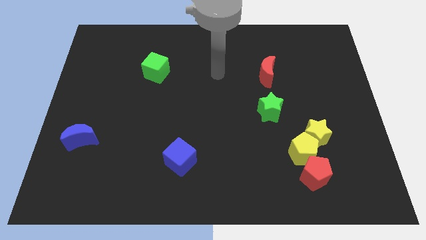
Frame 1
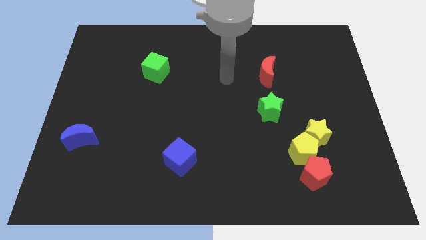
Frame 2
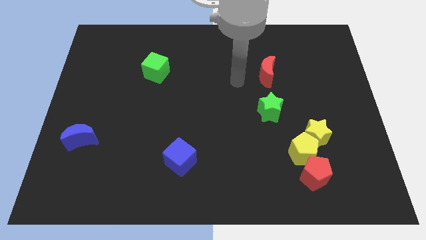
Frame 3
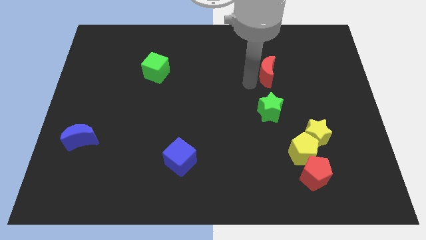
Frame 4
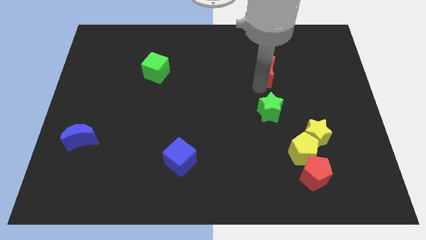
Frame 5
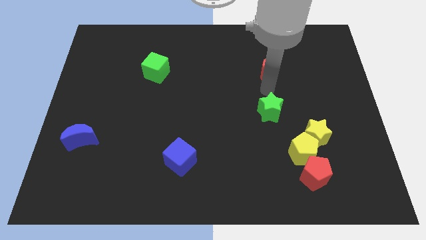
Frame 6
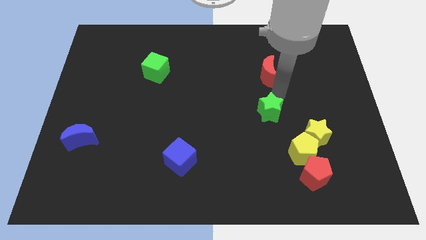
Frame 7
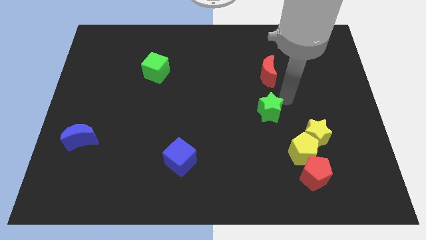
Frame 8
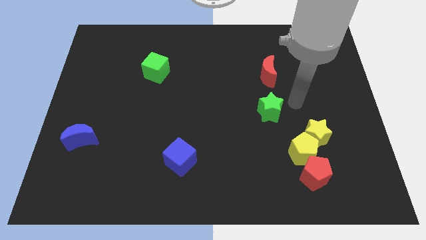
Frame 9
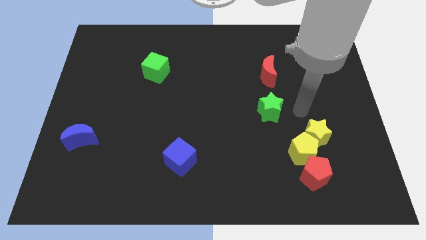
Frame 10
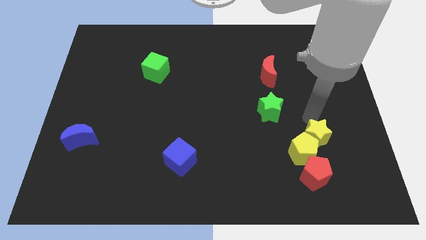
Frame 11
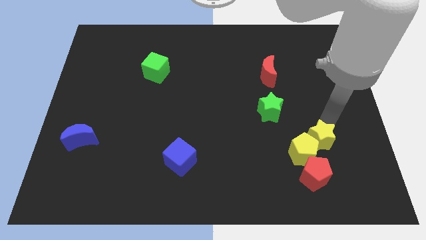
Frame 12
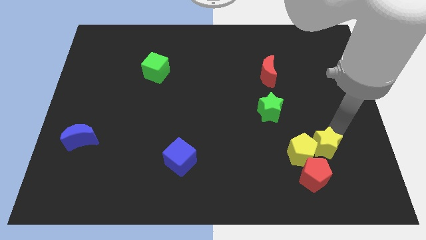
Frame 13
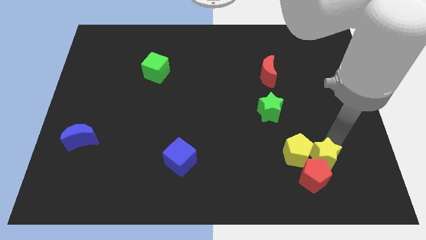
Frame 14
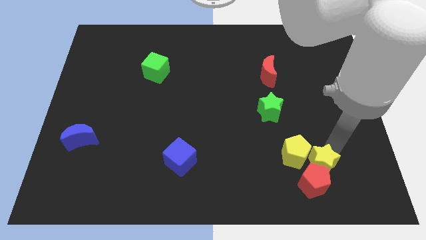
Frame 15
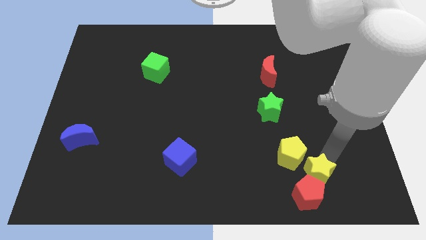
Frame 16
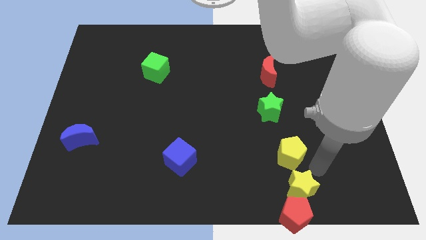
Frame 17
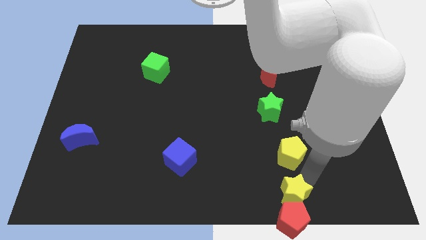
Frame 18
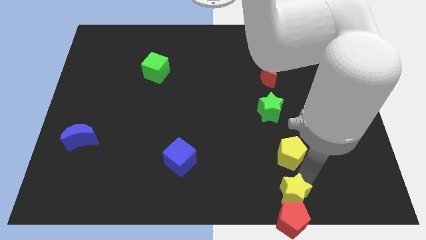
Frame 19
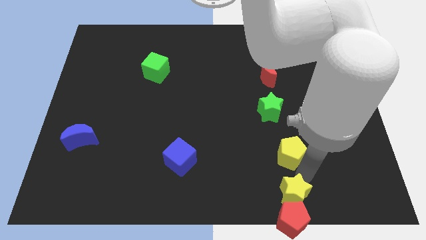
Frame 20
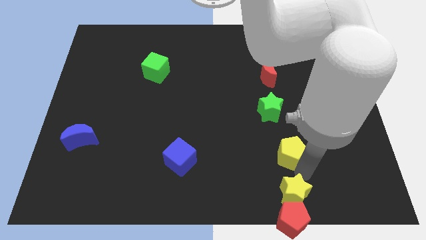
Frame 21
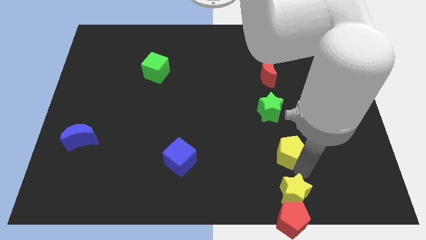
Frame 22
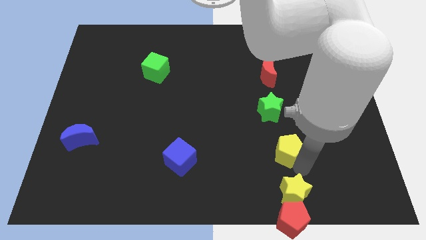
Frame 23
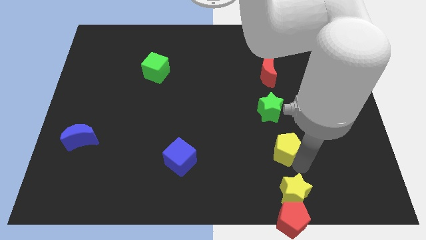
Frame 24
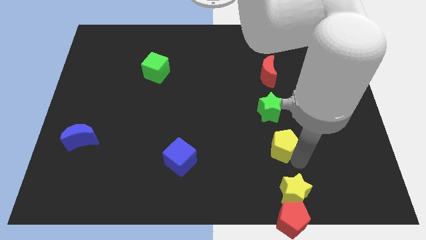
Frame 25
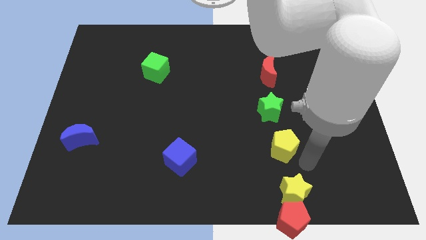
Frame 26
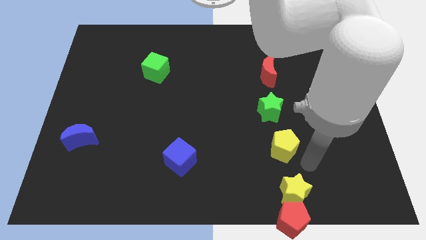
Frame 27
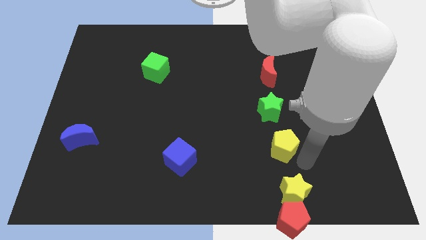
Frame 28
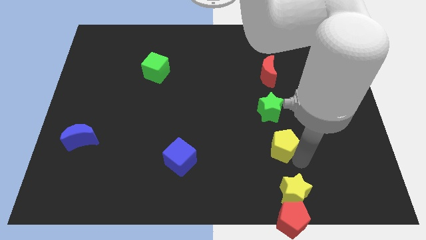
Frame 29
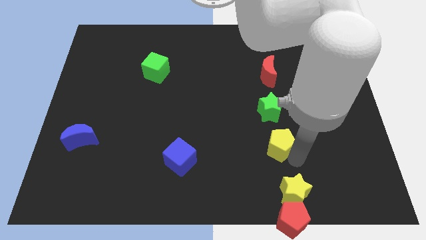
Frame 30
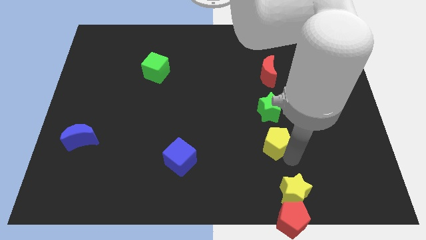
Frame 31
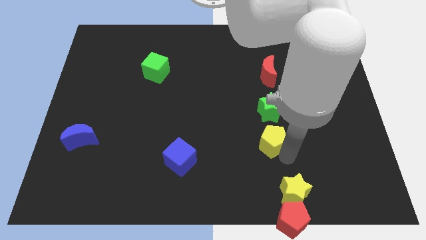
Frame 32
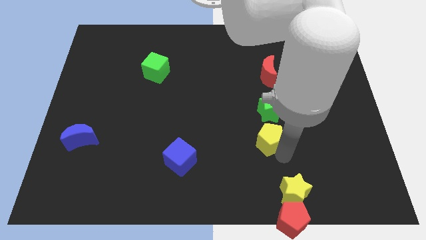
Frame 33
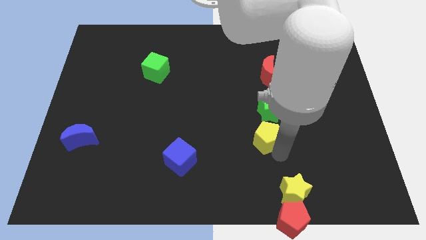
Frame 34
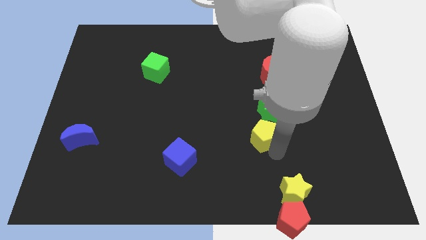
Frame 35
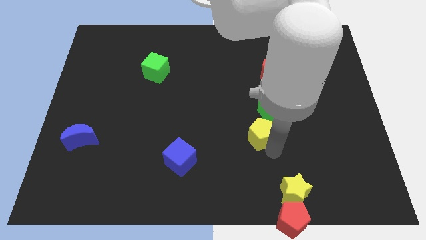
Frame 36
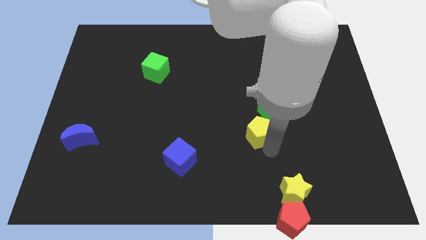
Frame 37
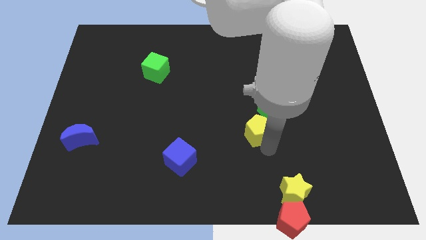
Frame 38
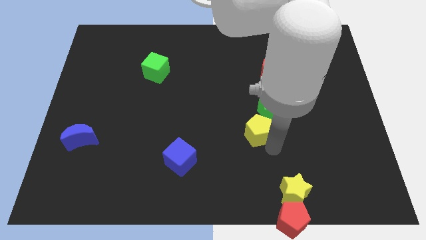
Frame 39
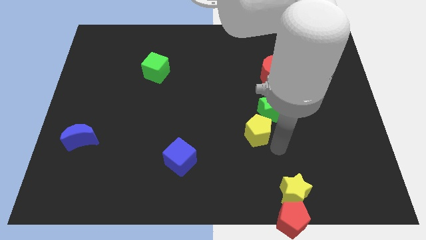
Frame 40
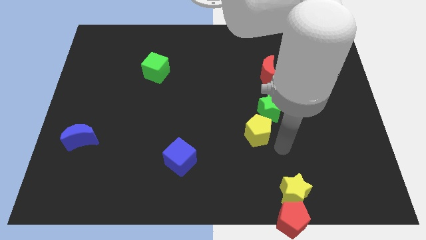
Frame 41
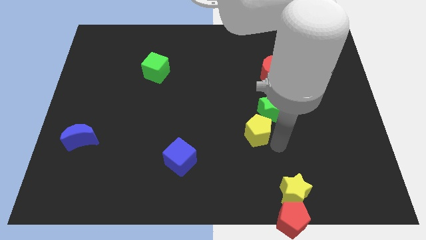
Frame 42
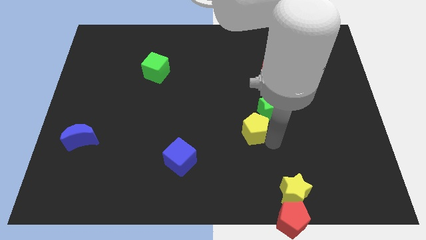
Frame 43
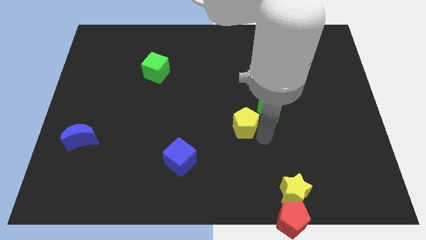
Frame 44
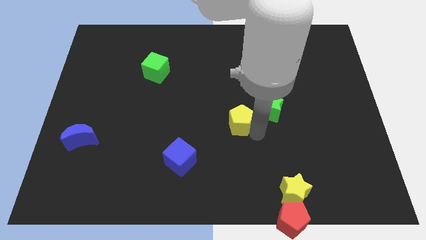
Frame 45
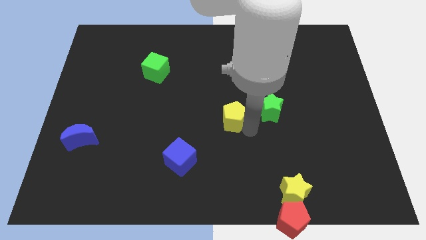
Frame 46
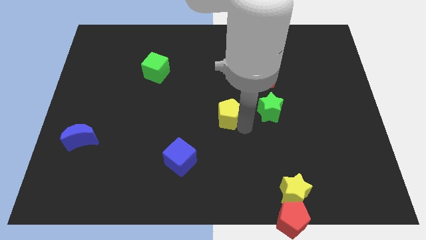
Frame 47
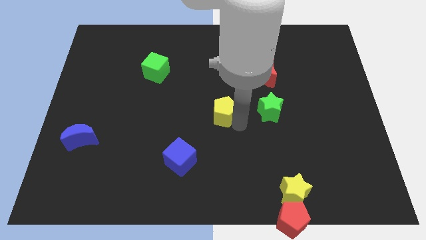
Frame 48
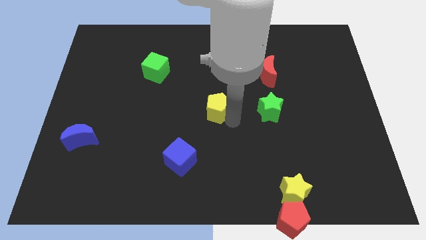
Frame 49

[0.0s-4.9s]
push the yellow pentagon upwards and then to the left

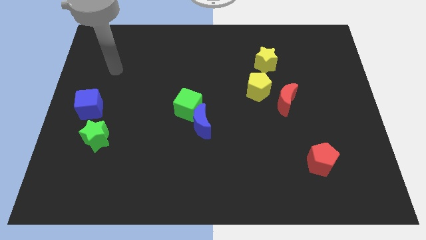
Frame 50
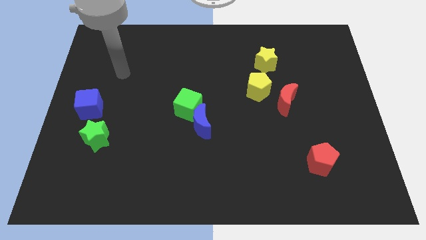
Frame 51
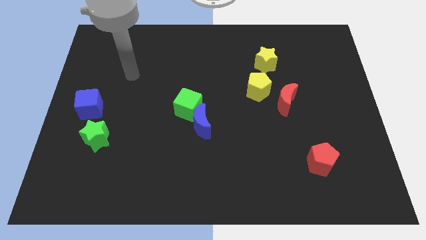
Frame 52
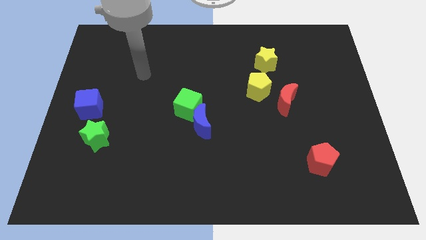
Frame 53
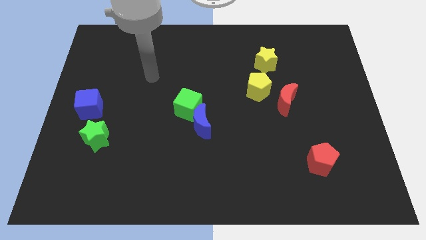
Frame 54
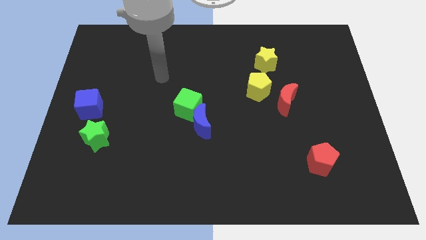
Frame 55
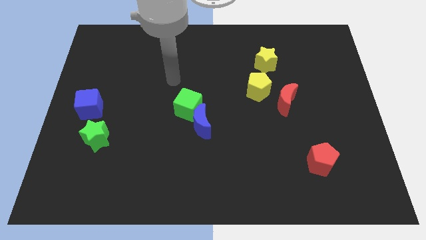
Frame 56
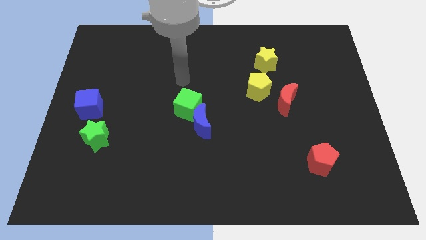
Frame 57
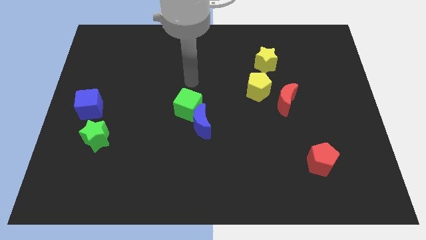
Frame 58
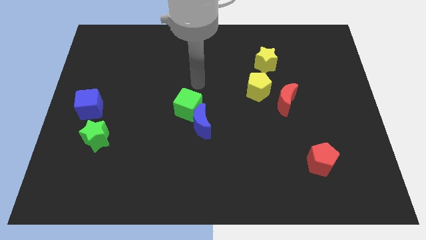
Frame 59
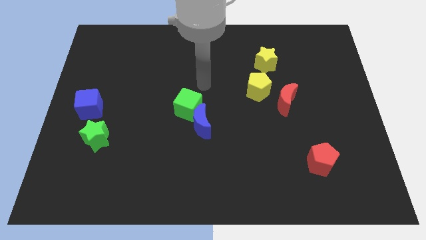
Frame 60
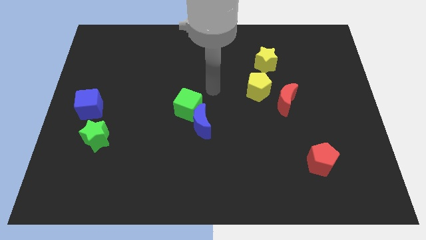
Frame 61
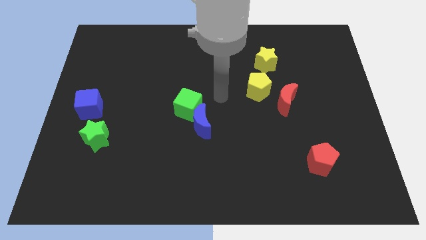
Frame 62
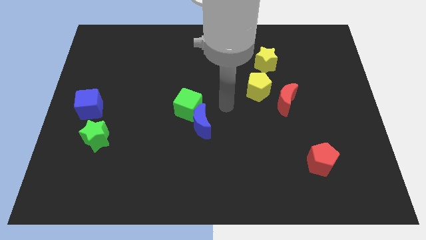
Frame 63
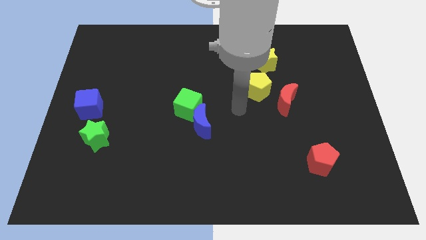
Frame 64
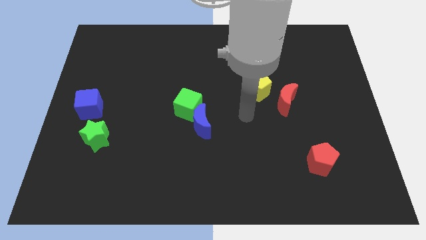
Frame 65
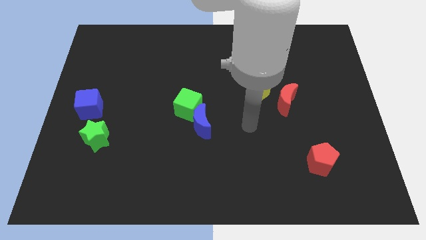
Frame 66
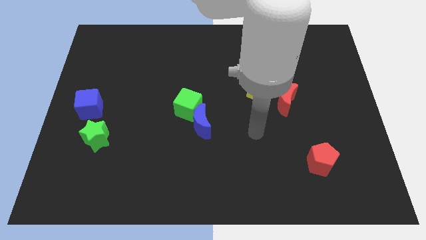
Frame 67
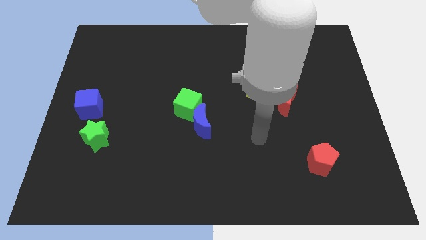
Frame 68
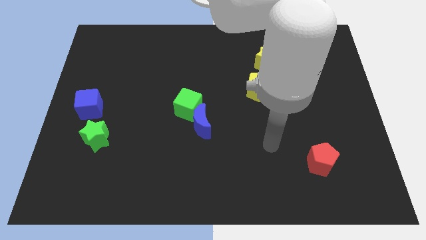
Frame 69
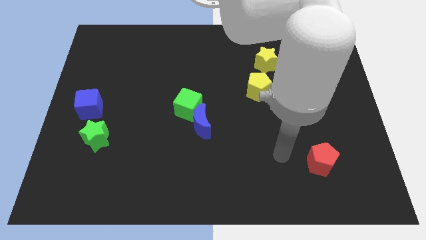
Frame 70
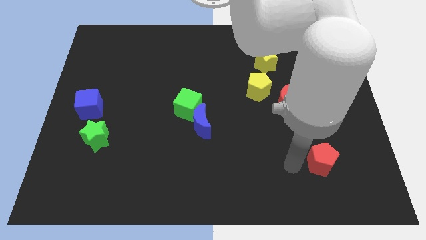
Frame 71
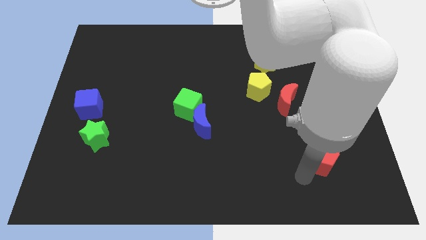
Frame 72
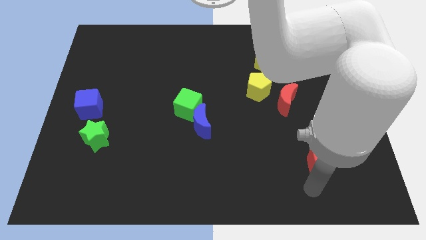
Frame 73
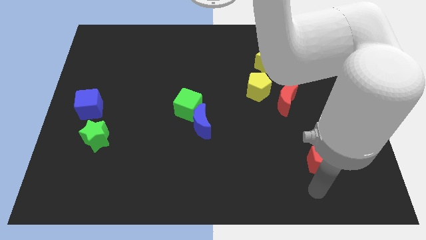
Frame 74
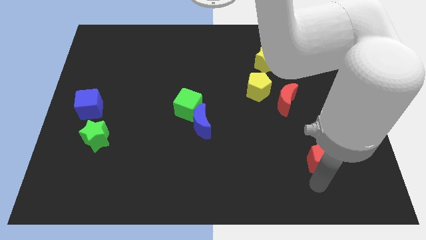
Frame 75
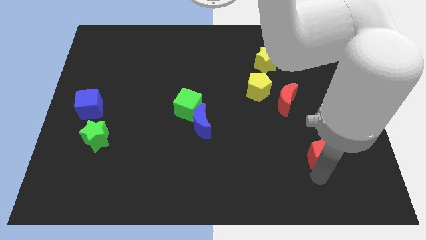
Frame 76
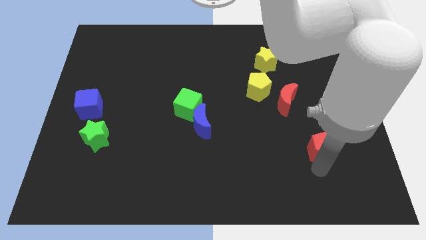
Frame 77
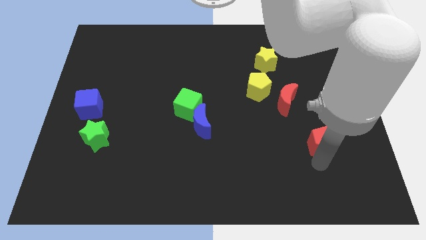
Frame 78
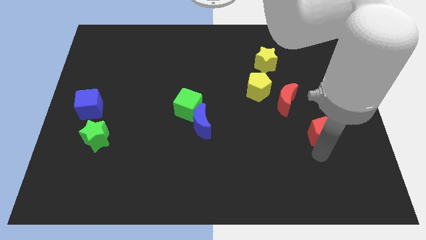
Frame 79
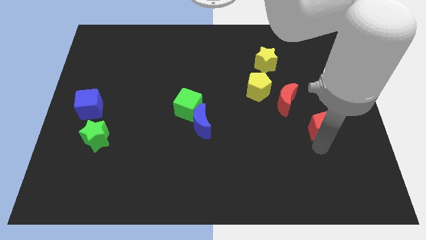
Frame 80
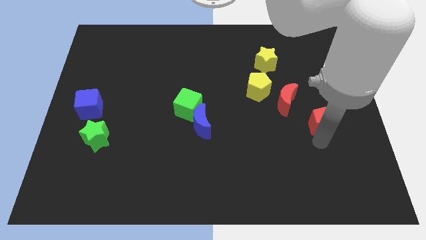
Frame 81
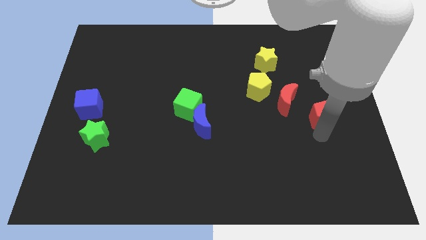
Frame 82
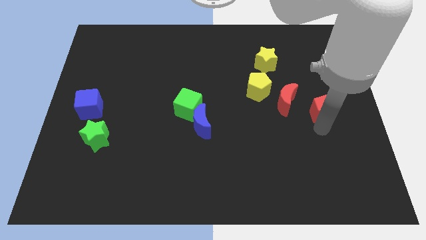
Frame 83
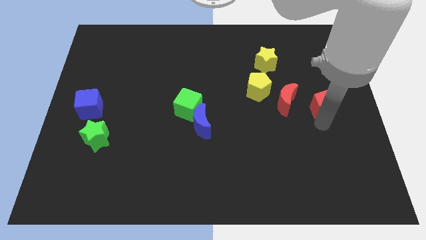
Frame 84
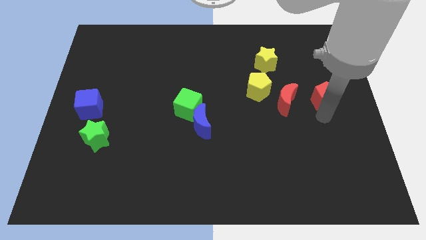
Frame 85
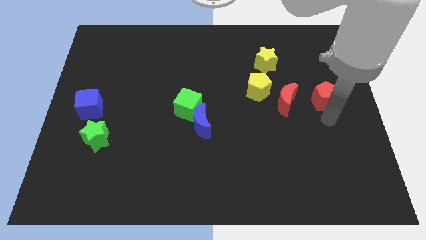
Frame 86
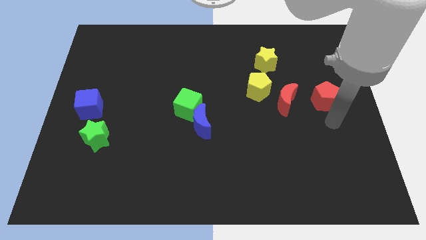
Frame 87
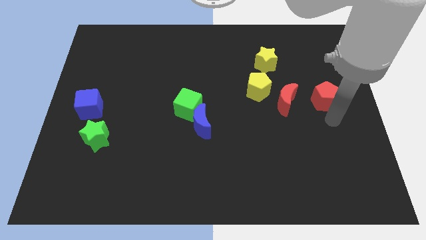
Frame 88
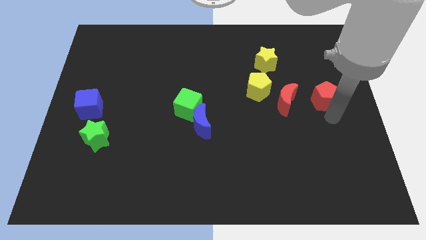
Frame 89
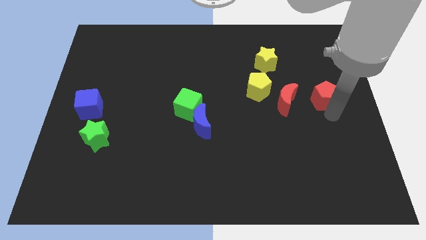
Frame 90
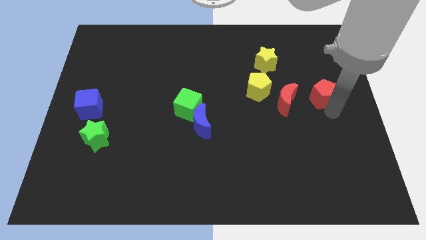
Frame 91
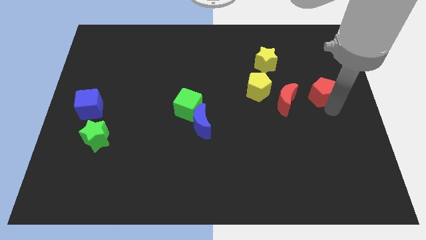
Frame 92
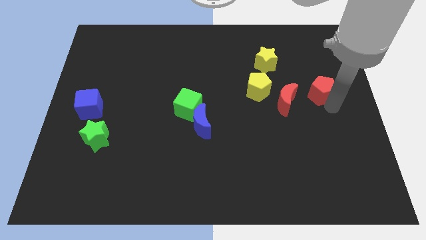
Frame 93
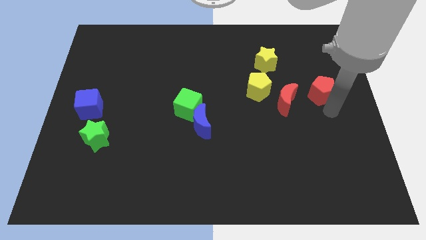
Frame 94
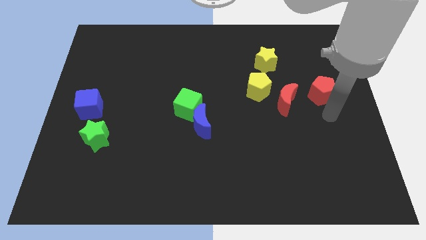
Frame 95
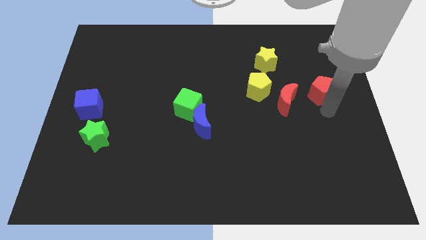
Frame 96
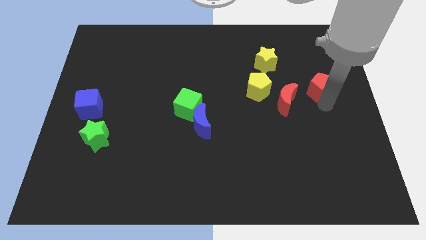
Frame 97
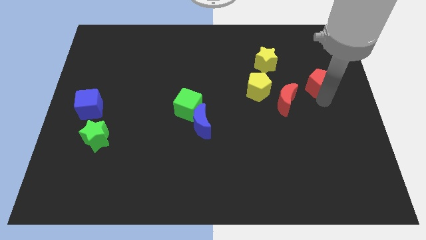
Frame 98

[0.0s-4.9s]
slide the red pentagon up
